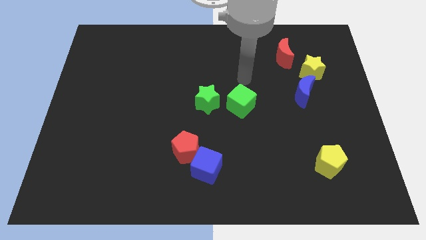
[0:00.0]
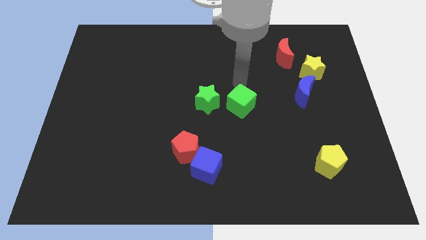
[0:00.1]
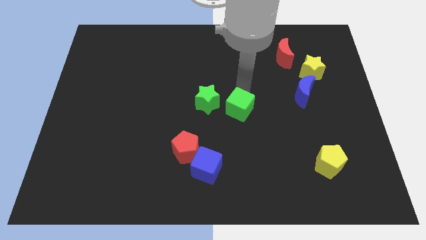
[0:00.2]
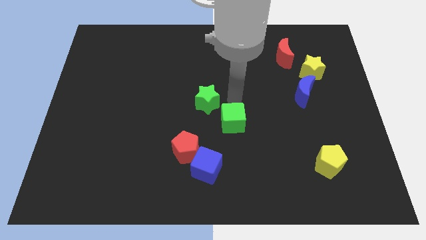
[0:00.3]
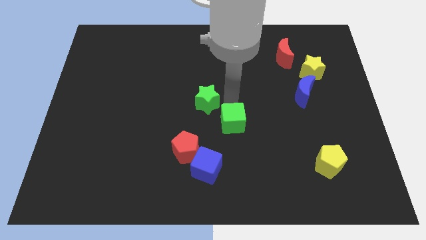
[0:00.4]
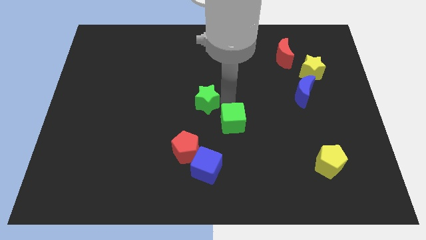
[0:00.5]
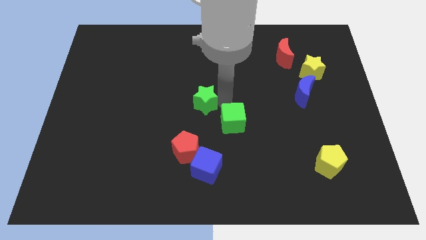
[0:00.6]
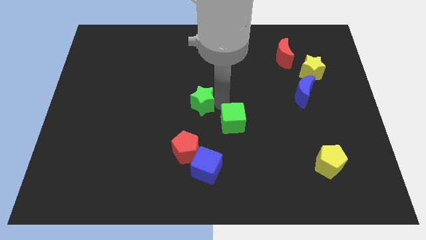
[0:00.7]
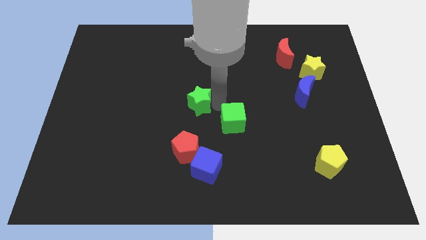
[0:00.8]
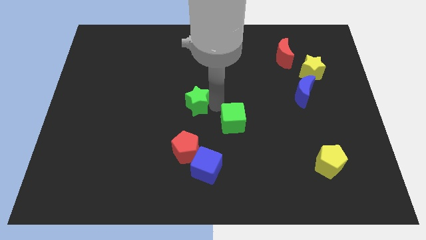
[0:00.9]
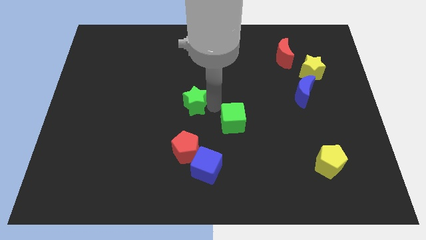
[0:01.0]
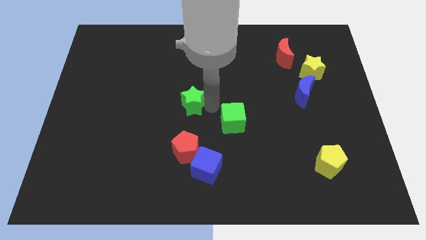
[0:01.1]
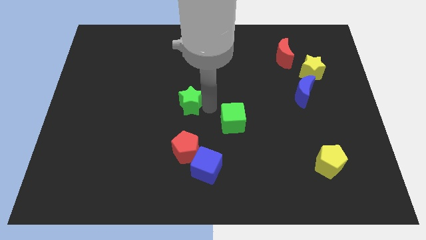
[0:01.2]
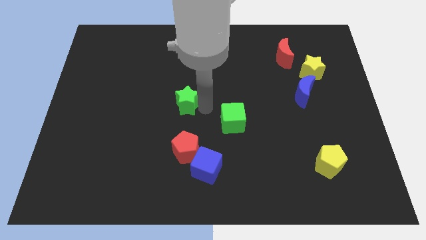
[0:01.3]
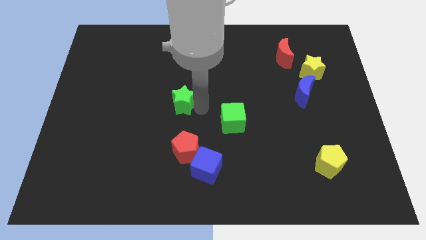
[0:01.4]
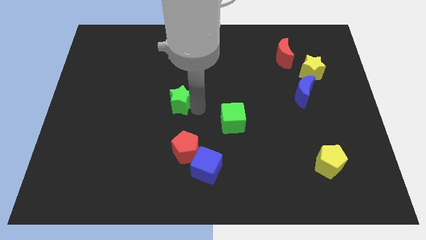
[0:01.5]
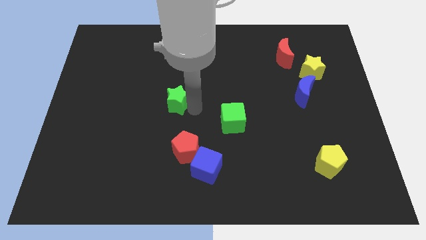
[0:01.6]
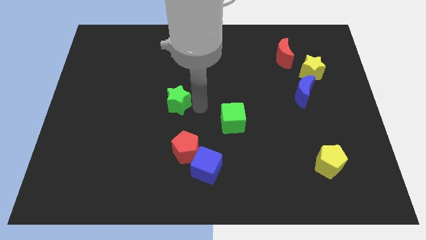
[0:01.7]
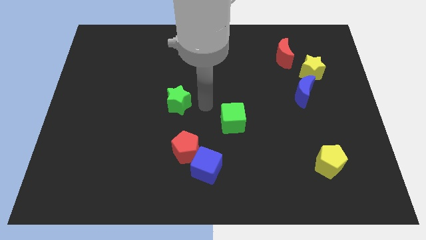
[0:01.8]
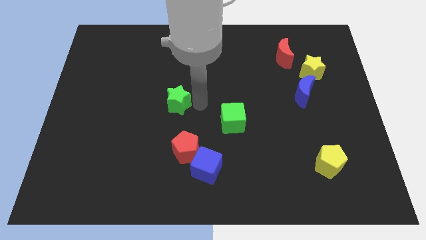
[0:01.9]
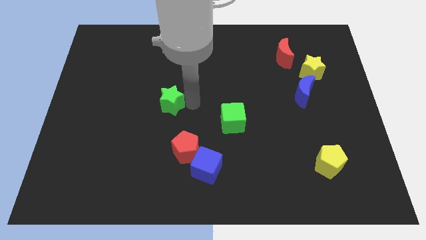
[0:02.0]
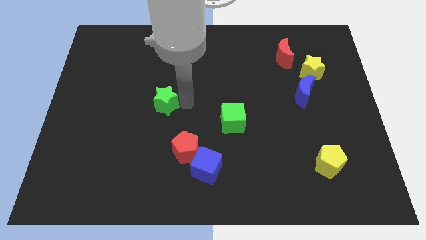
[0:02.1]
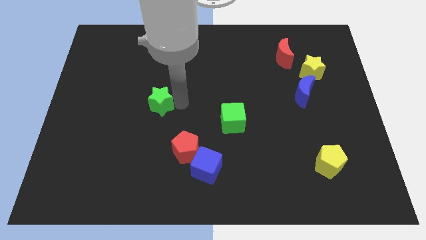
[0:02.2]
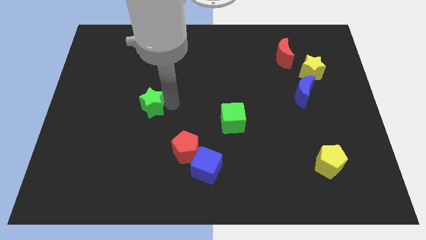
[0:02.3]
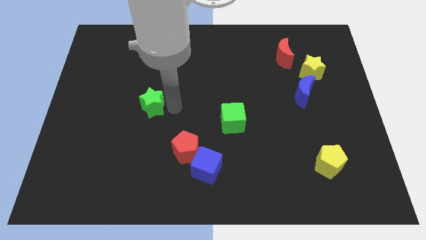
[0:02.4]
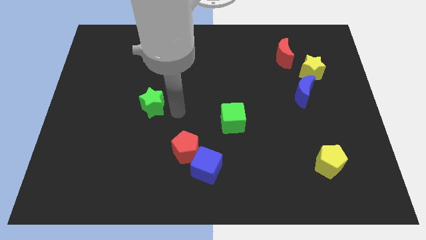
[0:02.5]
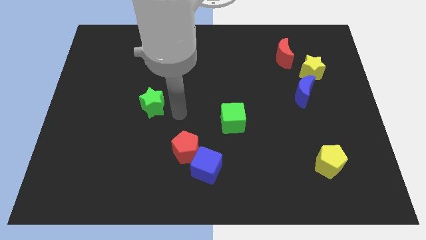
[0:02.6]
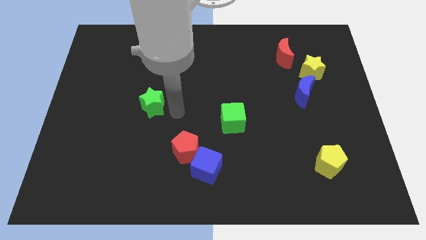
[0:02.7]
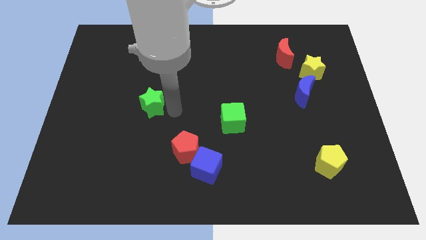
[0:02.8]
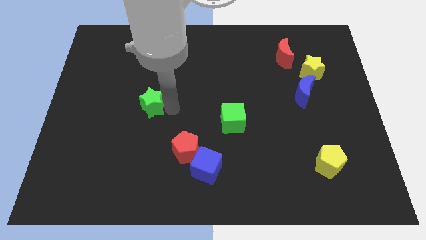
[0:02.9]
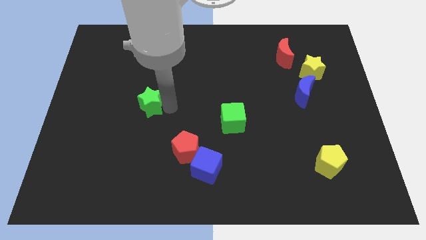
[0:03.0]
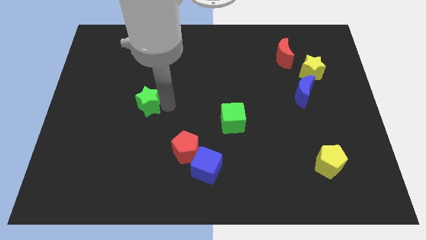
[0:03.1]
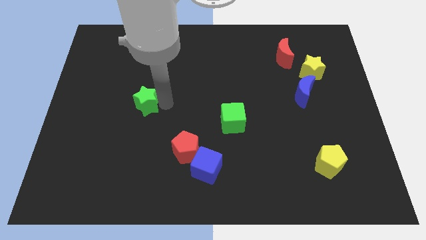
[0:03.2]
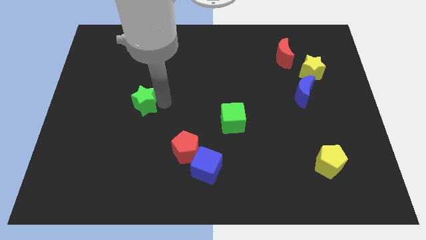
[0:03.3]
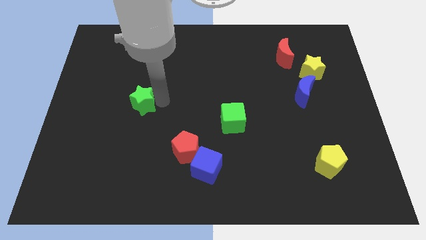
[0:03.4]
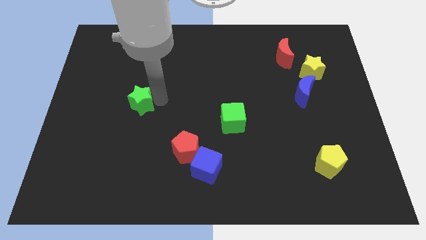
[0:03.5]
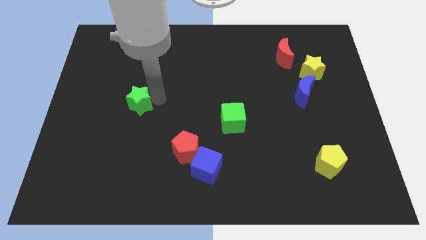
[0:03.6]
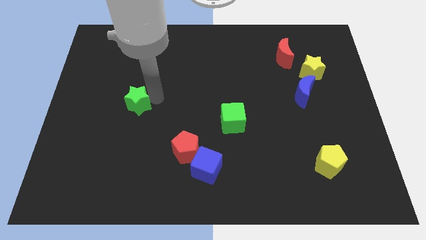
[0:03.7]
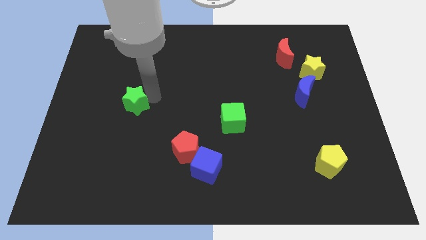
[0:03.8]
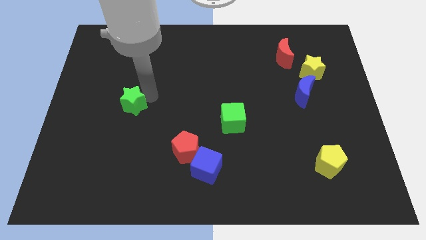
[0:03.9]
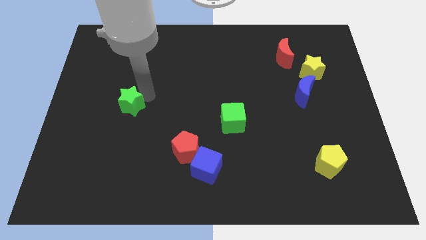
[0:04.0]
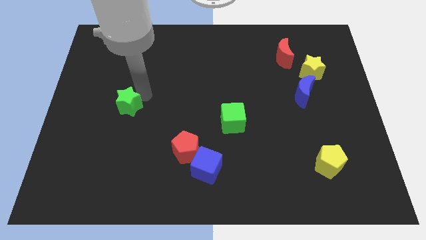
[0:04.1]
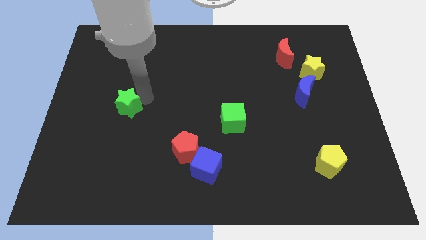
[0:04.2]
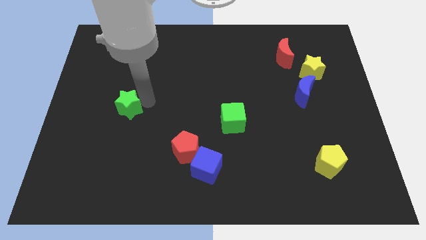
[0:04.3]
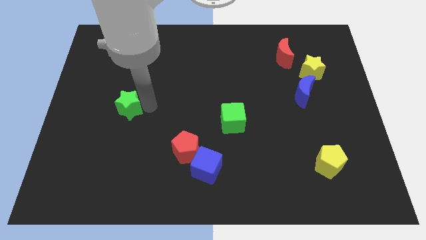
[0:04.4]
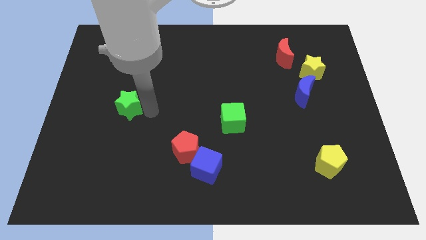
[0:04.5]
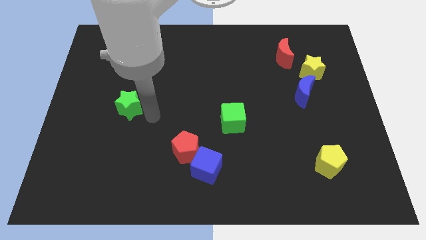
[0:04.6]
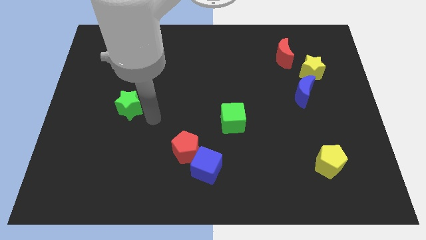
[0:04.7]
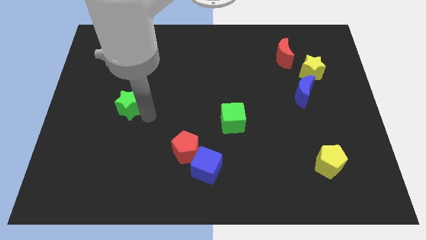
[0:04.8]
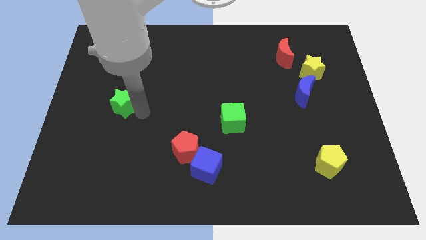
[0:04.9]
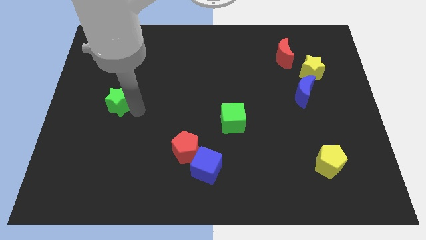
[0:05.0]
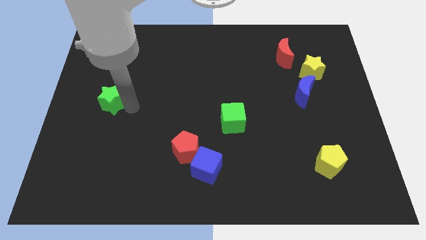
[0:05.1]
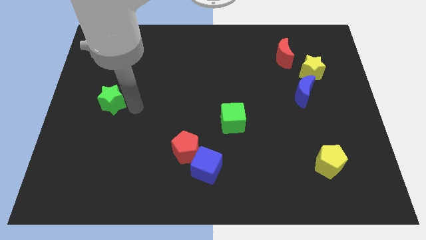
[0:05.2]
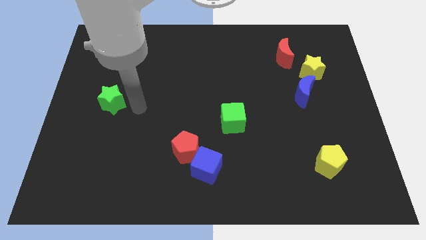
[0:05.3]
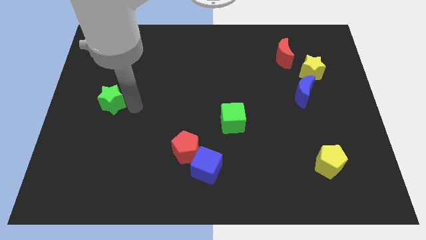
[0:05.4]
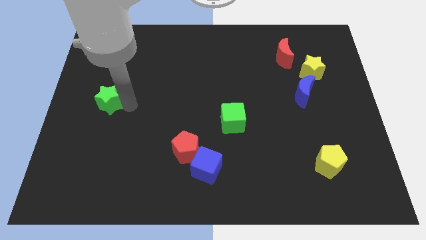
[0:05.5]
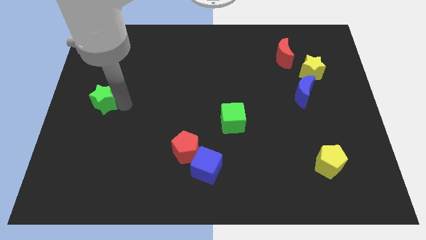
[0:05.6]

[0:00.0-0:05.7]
put the green star to the left side of the board

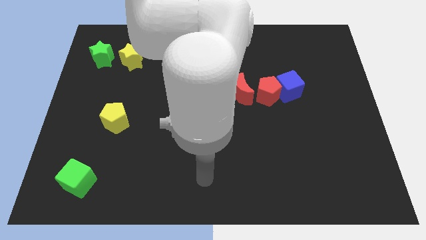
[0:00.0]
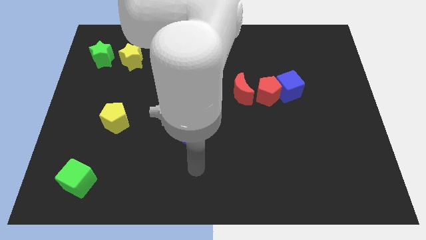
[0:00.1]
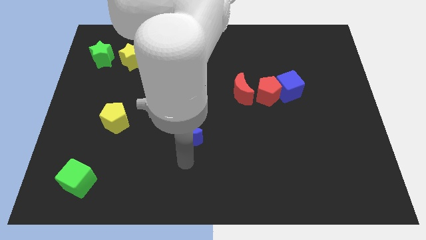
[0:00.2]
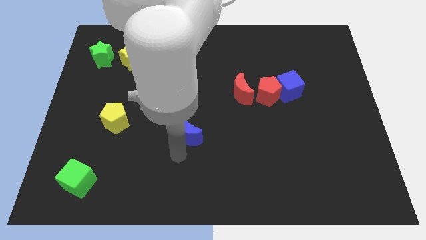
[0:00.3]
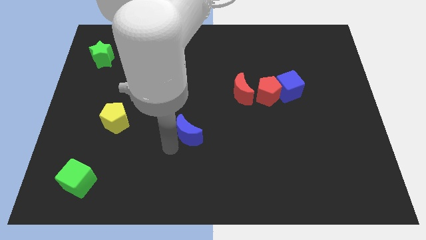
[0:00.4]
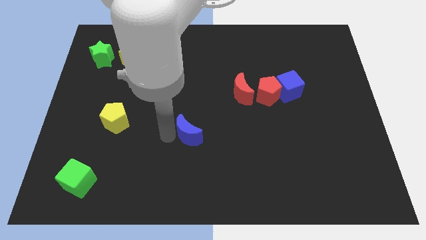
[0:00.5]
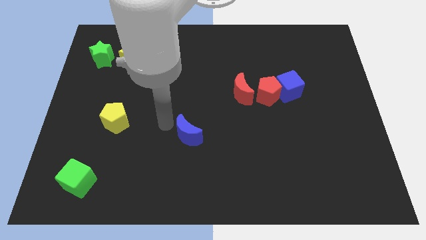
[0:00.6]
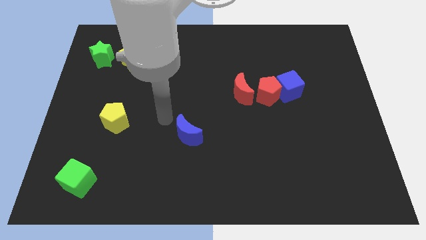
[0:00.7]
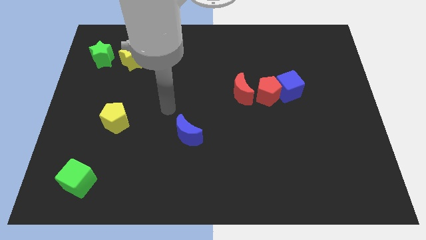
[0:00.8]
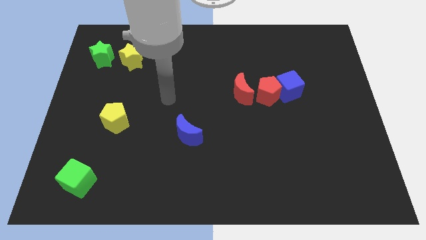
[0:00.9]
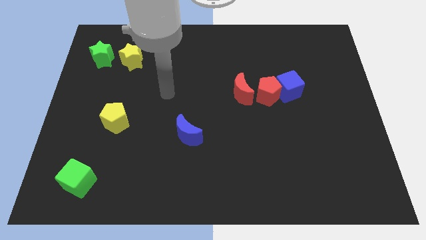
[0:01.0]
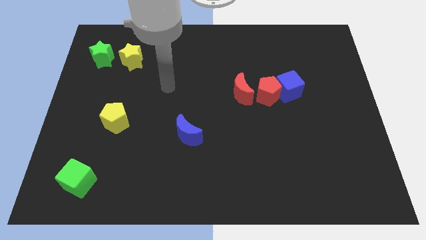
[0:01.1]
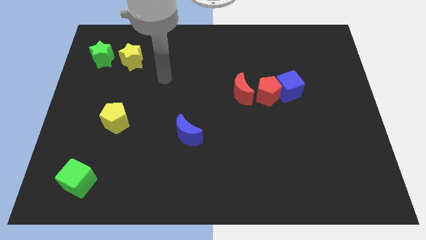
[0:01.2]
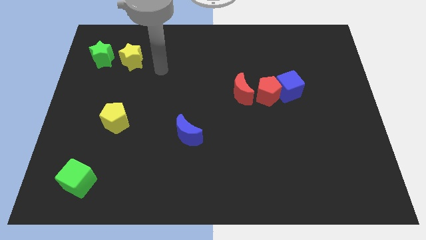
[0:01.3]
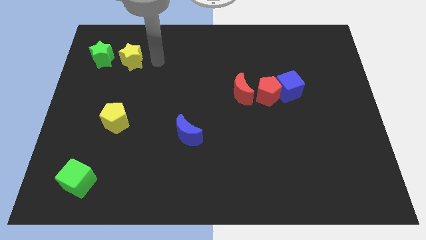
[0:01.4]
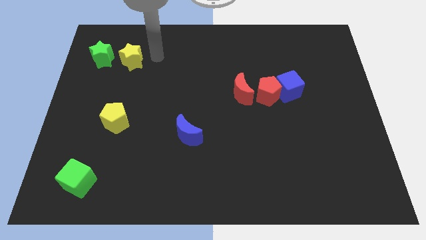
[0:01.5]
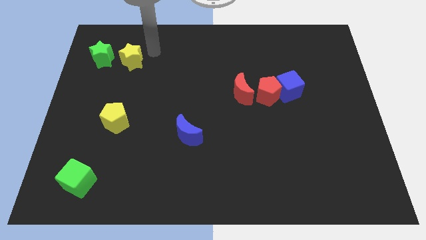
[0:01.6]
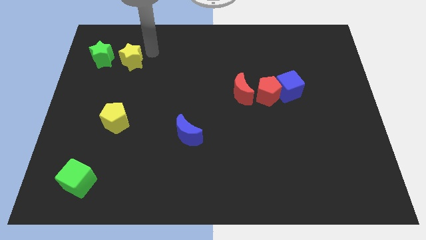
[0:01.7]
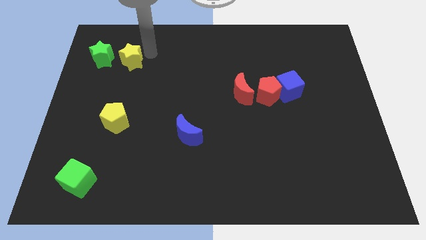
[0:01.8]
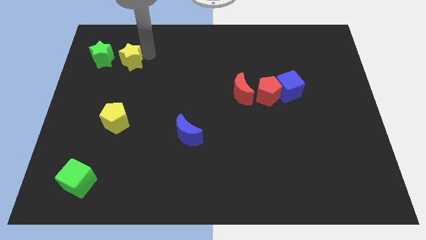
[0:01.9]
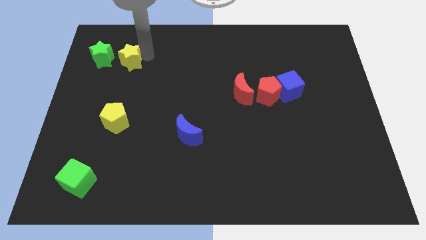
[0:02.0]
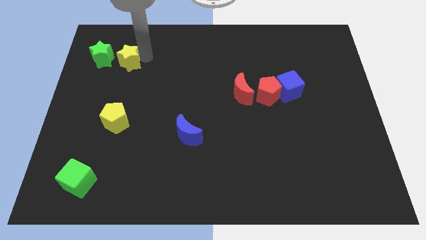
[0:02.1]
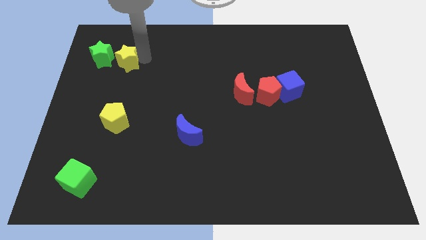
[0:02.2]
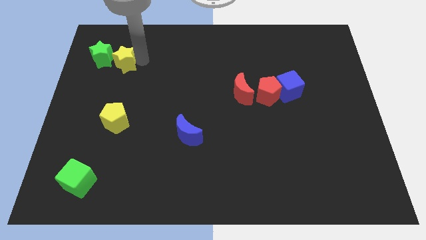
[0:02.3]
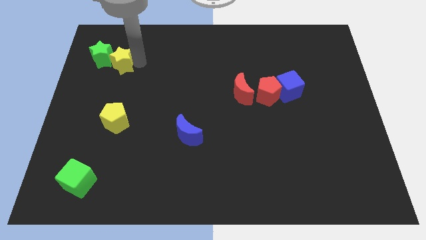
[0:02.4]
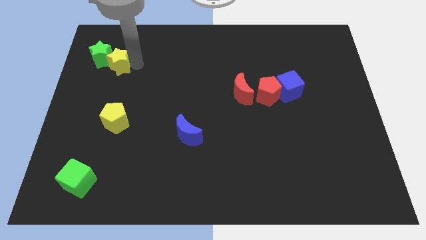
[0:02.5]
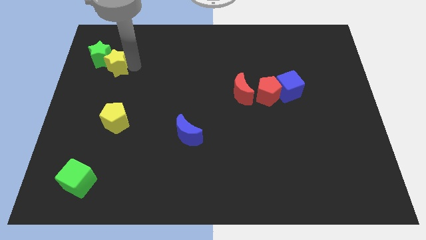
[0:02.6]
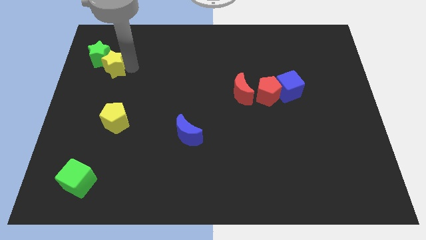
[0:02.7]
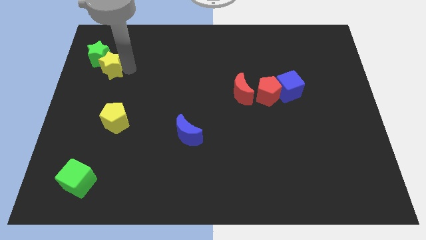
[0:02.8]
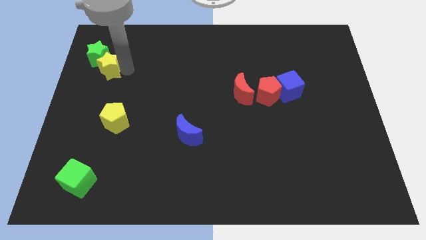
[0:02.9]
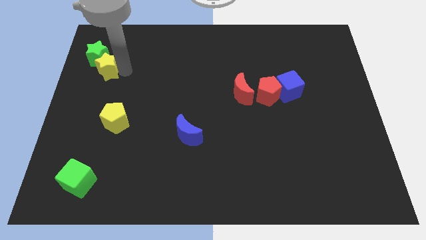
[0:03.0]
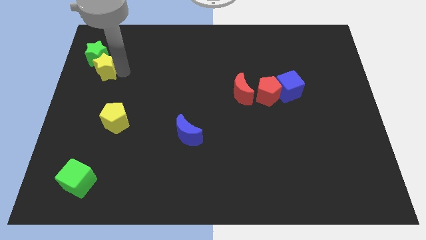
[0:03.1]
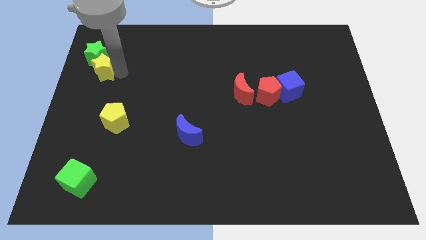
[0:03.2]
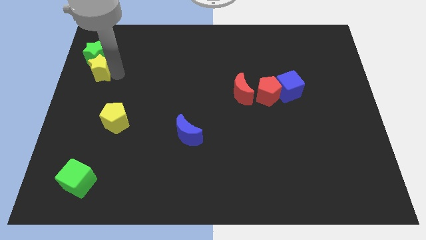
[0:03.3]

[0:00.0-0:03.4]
move the yellow star to the left side
